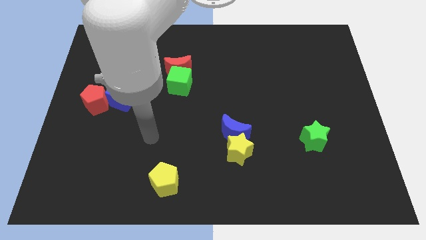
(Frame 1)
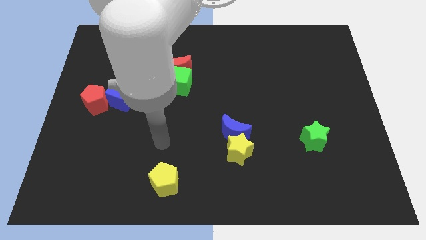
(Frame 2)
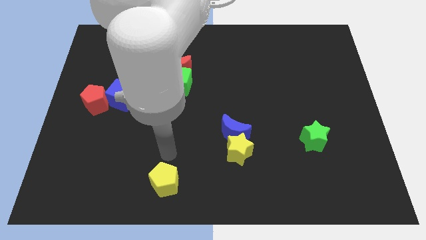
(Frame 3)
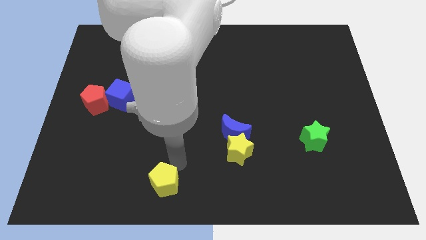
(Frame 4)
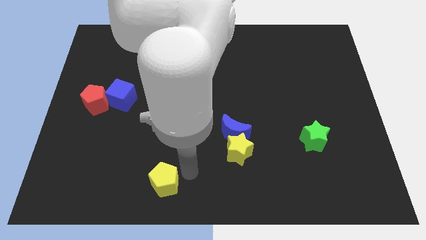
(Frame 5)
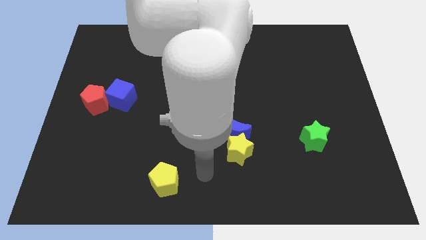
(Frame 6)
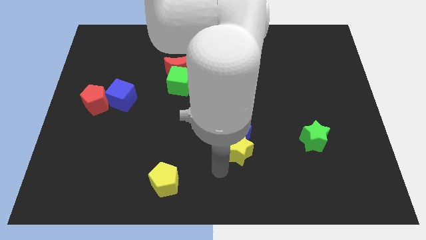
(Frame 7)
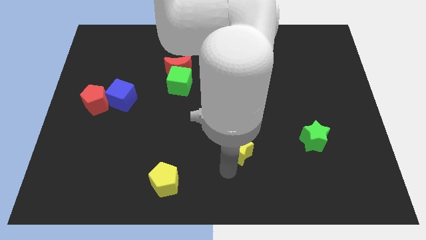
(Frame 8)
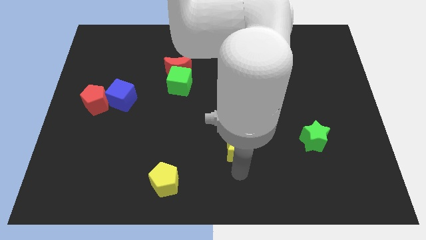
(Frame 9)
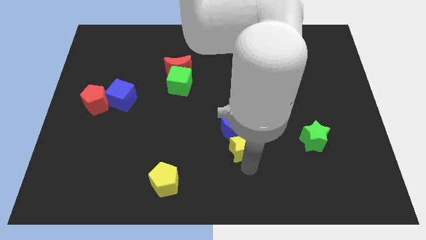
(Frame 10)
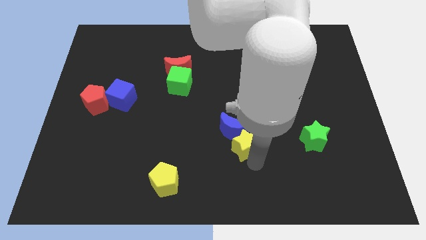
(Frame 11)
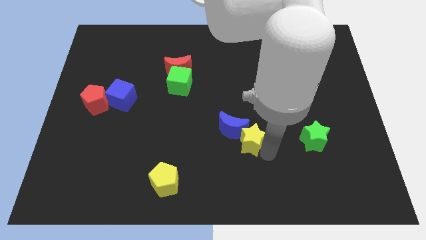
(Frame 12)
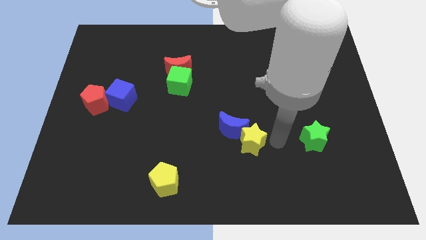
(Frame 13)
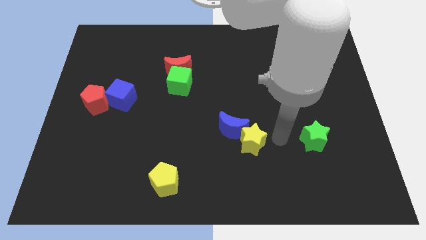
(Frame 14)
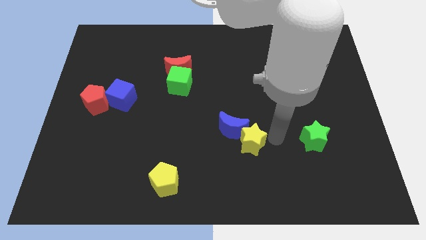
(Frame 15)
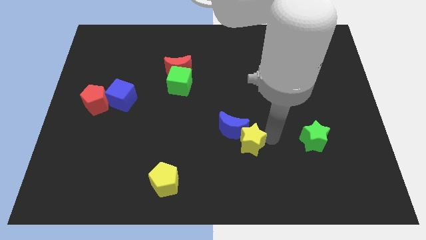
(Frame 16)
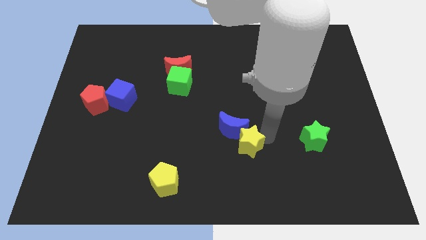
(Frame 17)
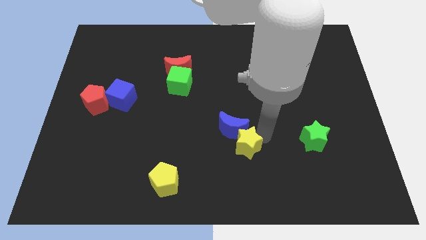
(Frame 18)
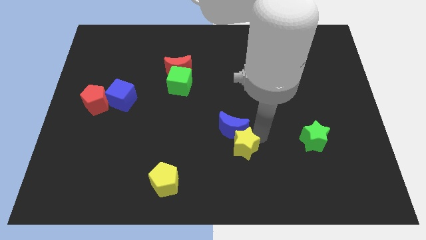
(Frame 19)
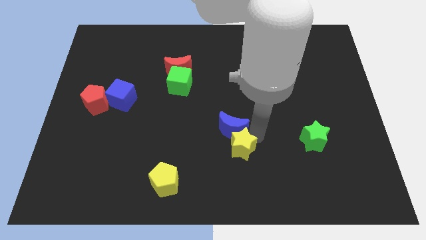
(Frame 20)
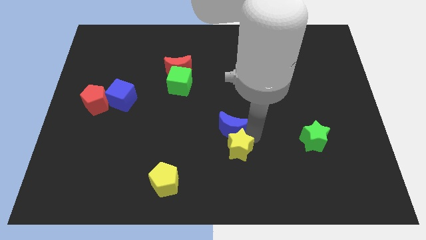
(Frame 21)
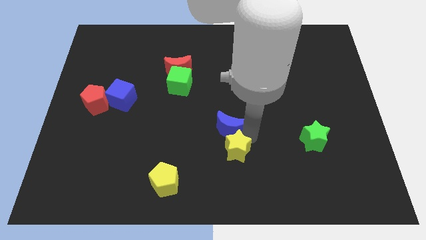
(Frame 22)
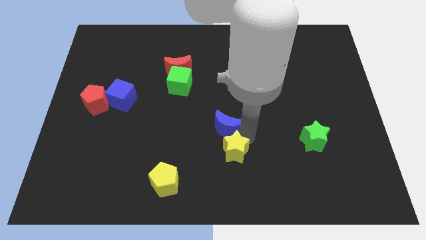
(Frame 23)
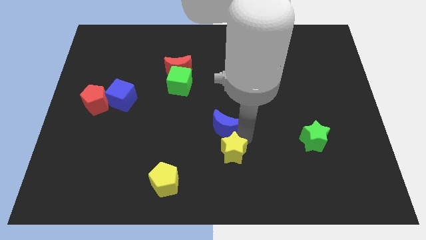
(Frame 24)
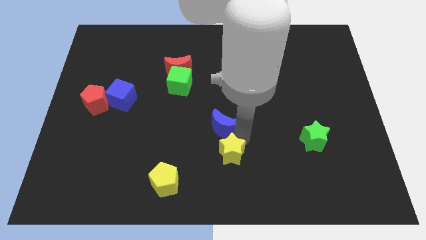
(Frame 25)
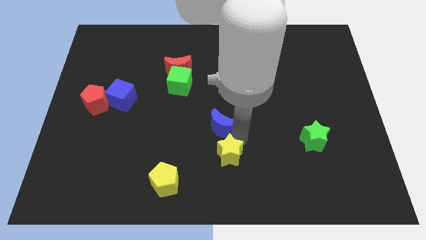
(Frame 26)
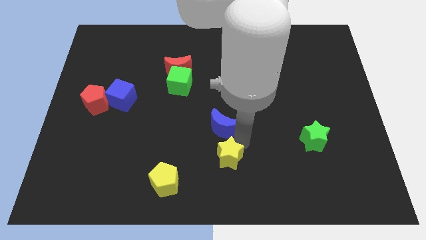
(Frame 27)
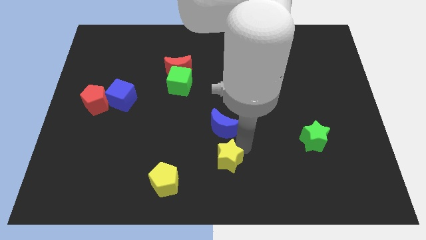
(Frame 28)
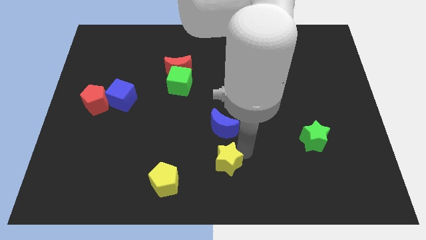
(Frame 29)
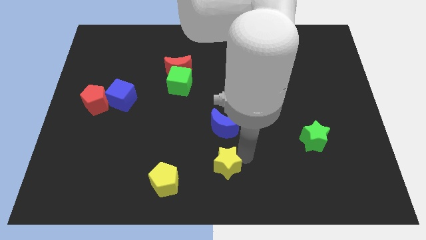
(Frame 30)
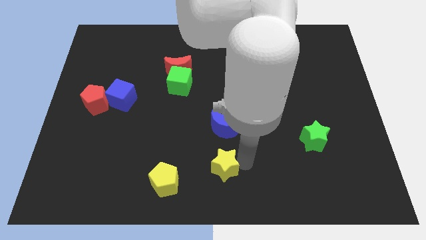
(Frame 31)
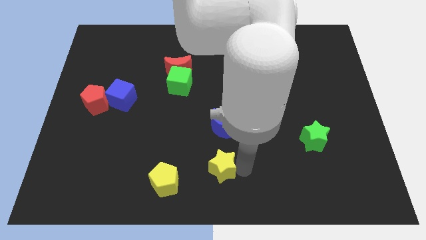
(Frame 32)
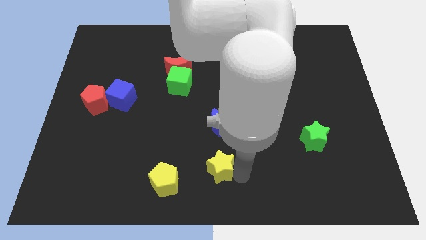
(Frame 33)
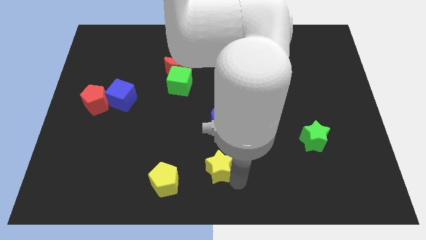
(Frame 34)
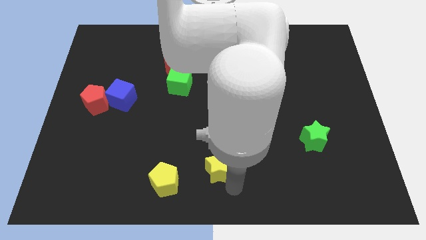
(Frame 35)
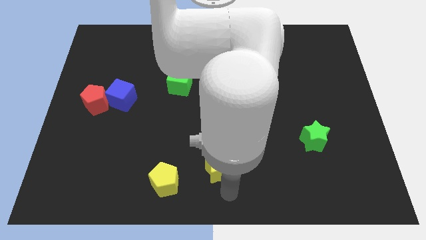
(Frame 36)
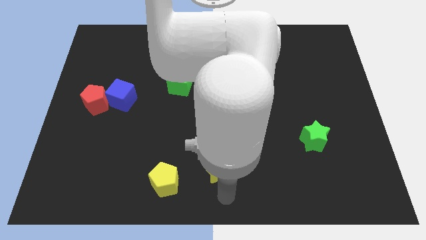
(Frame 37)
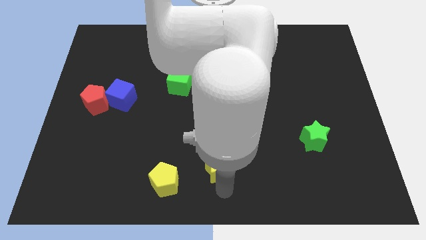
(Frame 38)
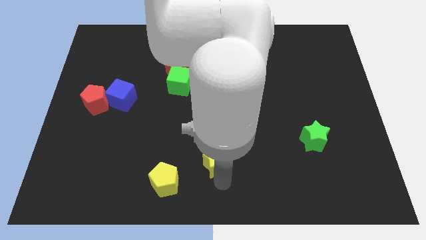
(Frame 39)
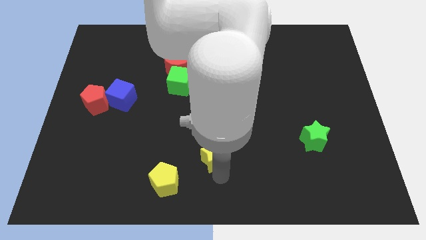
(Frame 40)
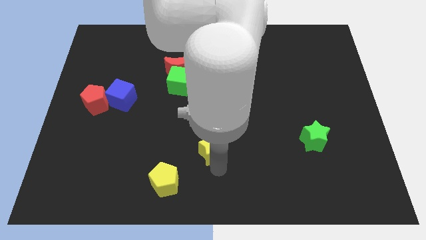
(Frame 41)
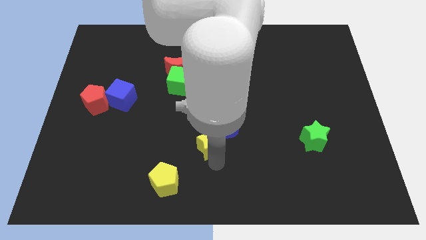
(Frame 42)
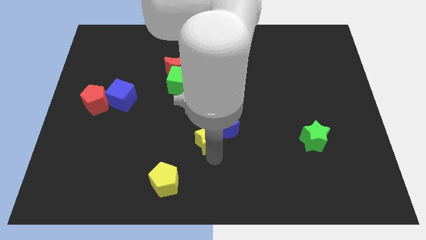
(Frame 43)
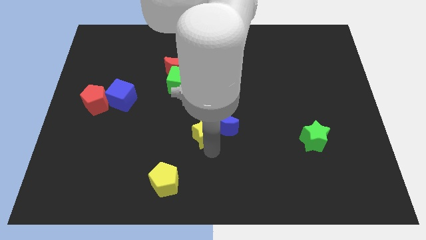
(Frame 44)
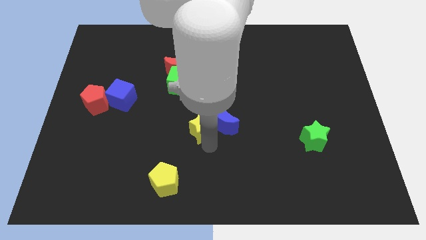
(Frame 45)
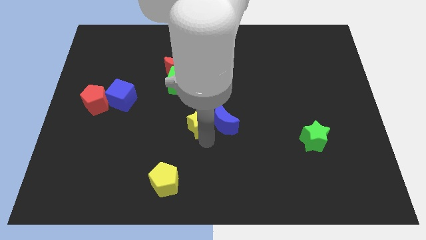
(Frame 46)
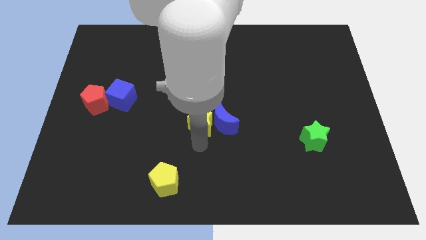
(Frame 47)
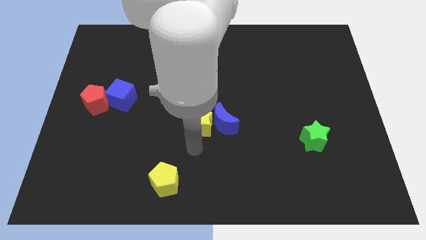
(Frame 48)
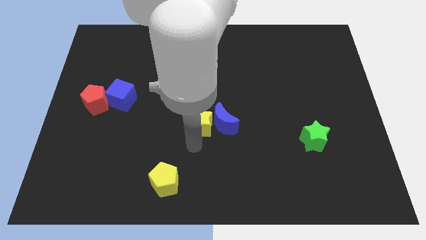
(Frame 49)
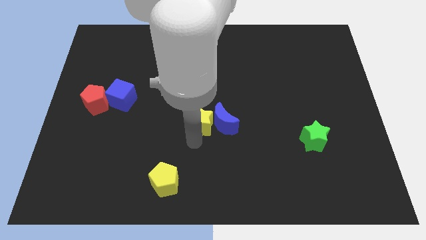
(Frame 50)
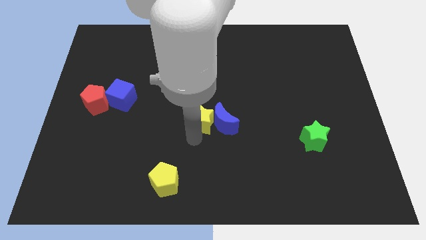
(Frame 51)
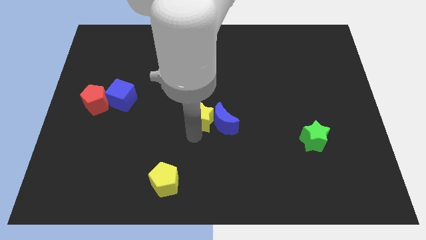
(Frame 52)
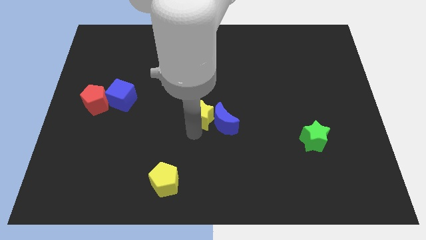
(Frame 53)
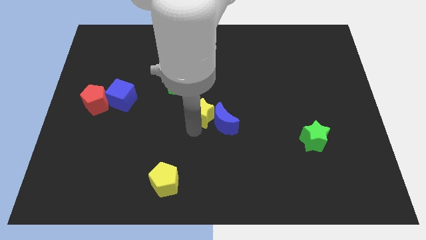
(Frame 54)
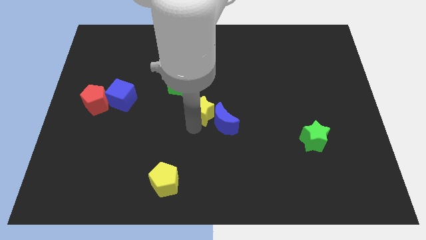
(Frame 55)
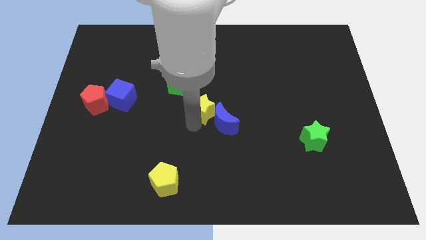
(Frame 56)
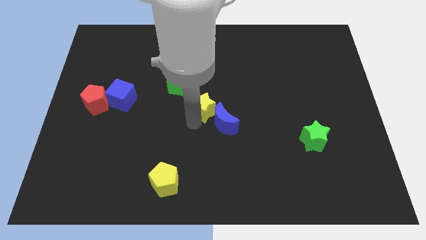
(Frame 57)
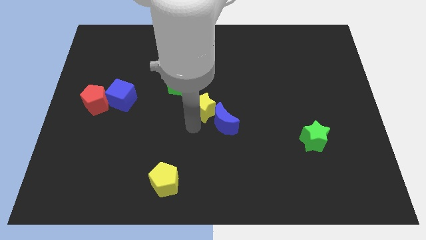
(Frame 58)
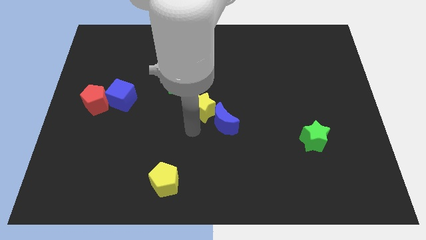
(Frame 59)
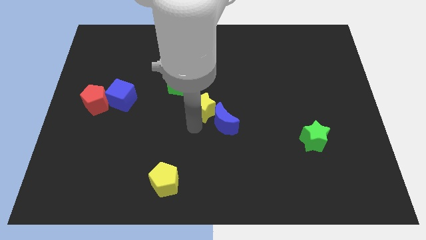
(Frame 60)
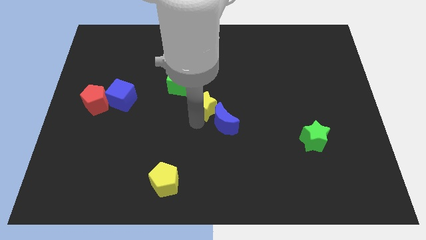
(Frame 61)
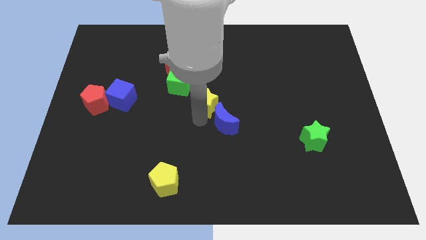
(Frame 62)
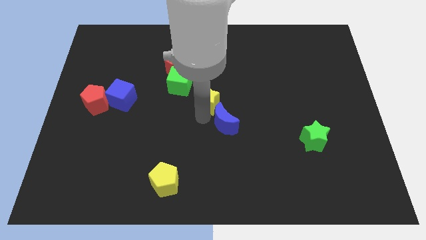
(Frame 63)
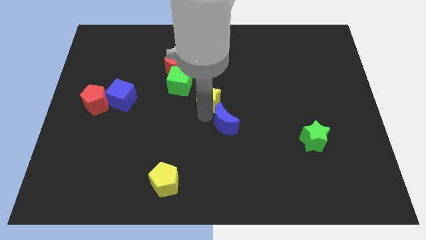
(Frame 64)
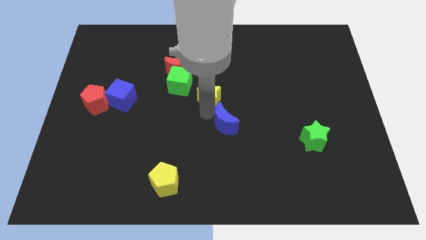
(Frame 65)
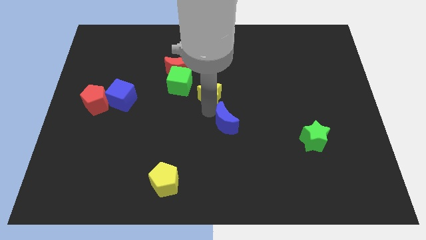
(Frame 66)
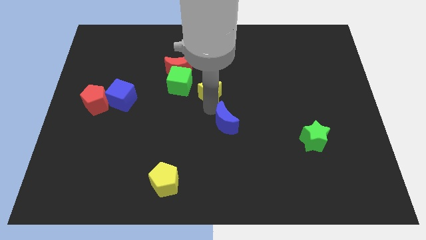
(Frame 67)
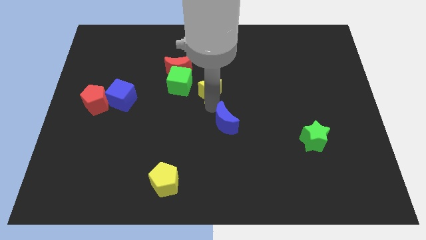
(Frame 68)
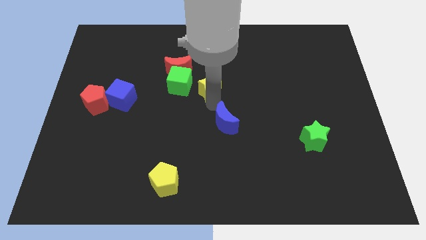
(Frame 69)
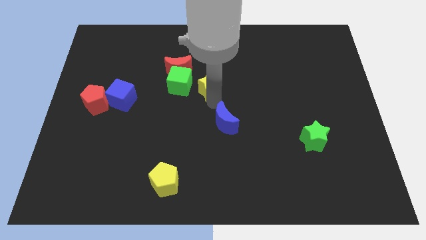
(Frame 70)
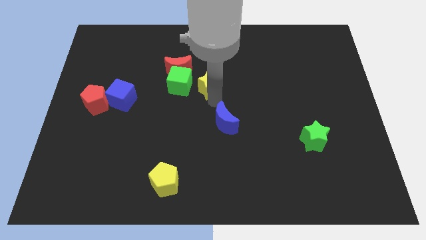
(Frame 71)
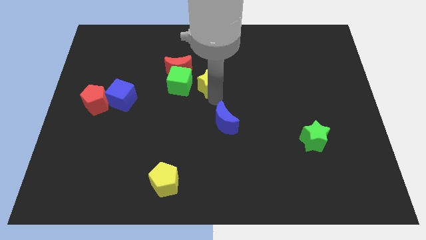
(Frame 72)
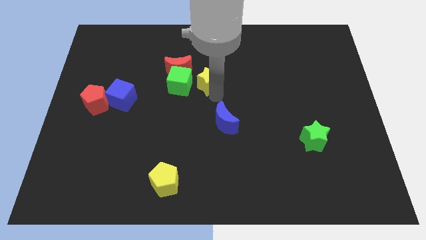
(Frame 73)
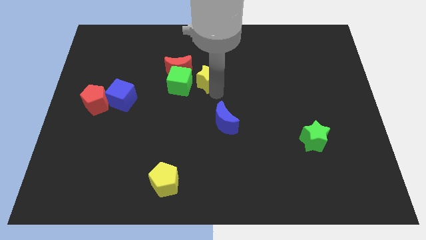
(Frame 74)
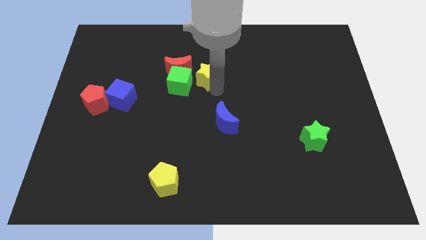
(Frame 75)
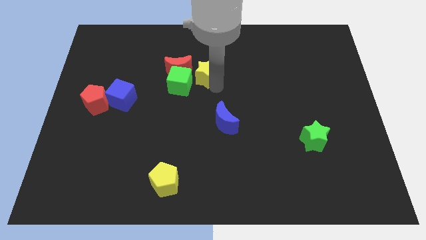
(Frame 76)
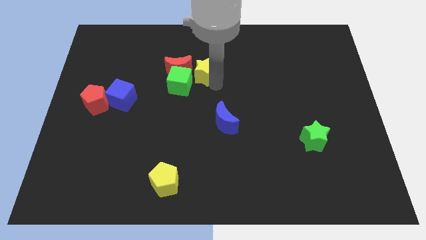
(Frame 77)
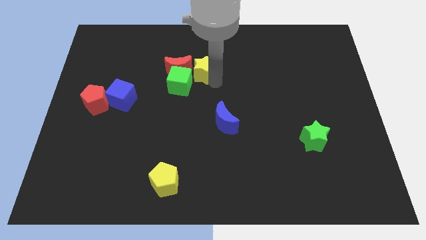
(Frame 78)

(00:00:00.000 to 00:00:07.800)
put the yellow star towards the red moon
